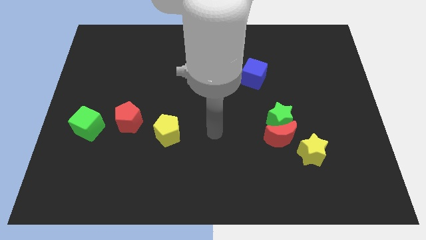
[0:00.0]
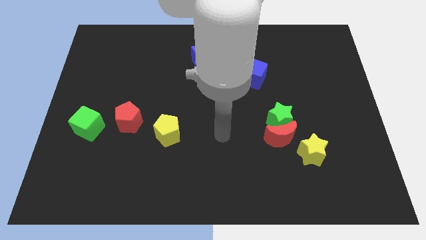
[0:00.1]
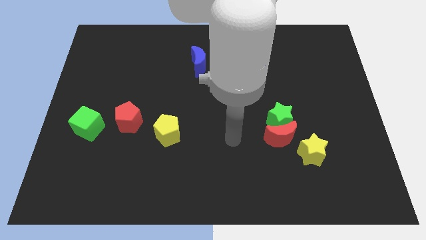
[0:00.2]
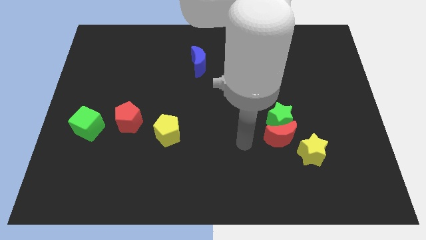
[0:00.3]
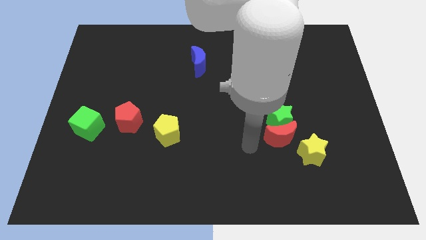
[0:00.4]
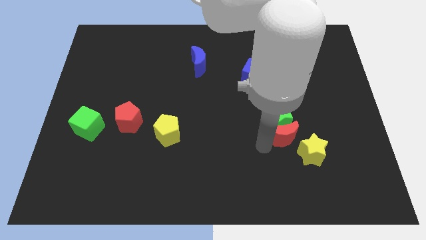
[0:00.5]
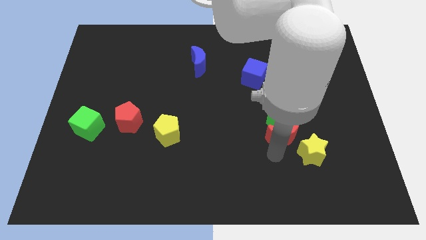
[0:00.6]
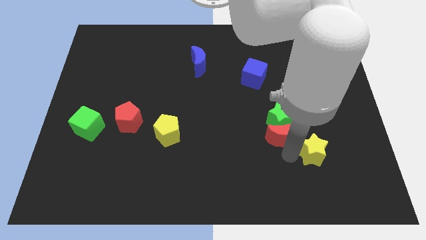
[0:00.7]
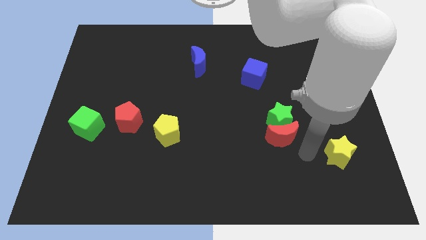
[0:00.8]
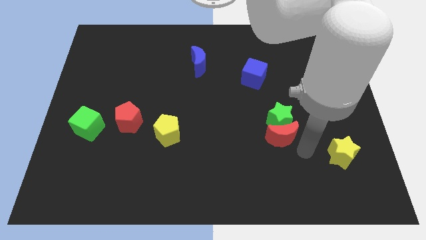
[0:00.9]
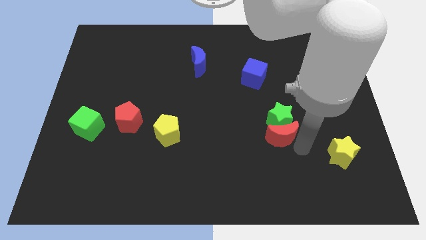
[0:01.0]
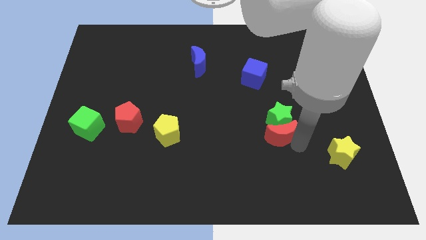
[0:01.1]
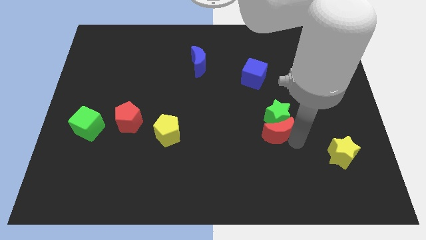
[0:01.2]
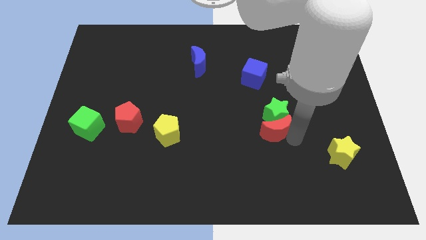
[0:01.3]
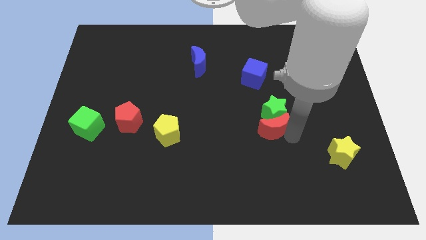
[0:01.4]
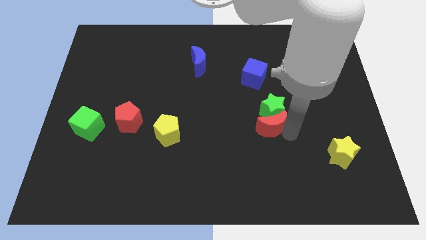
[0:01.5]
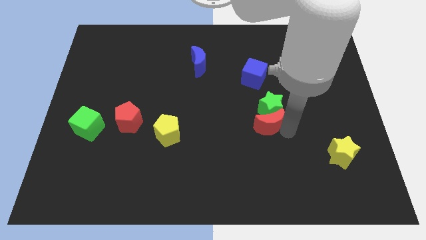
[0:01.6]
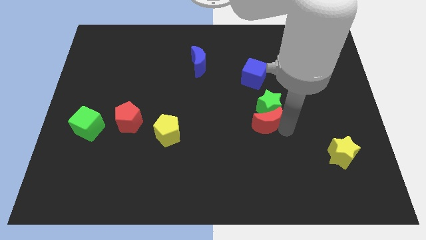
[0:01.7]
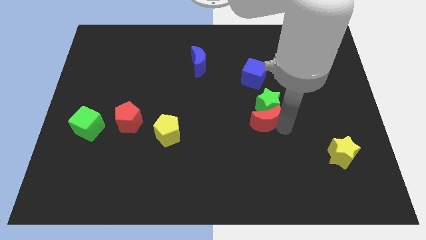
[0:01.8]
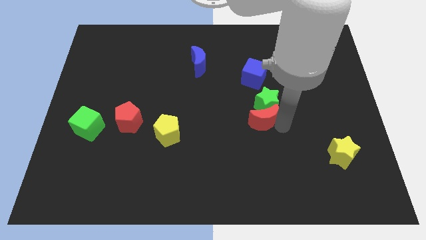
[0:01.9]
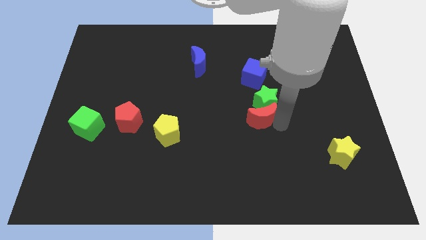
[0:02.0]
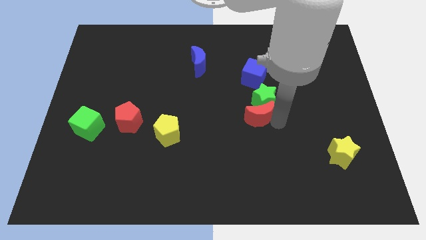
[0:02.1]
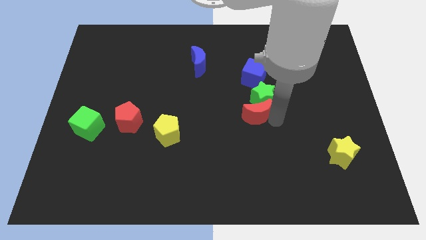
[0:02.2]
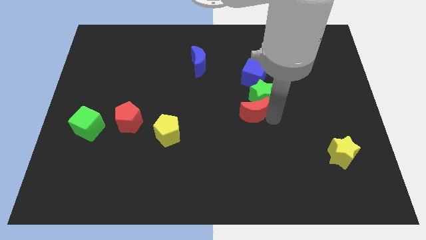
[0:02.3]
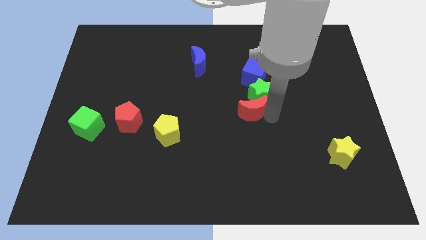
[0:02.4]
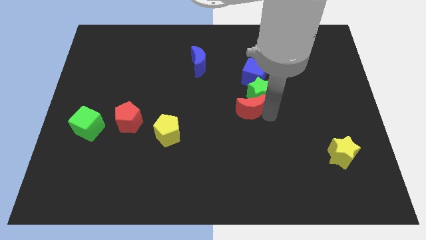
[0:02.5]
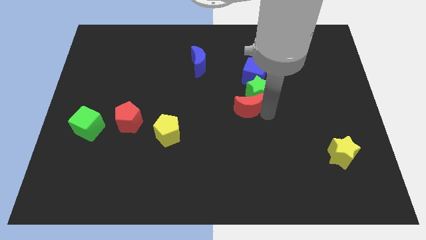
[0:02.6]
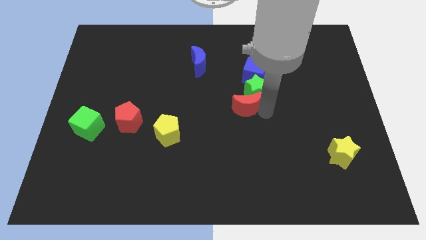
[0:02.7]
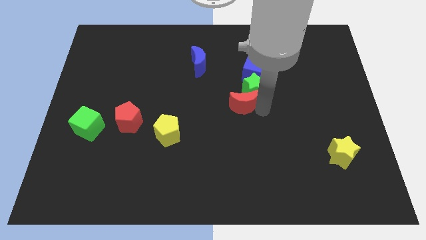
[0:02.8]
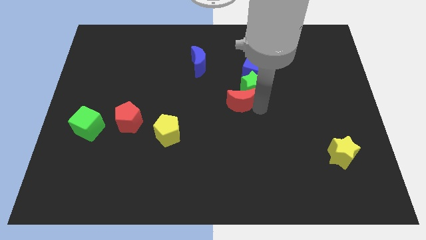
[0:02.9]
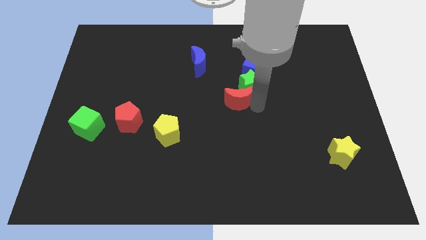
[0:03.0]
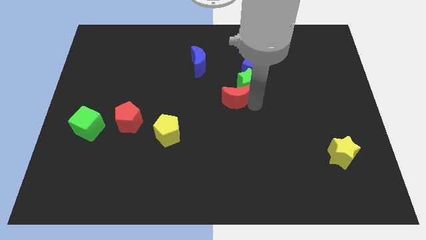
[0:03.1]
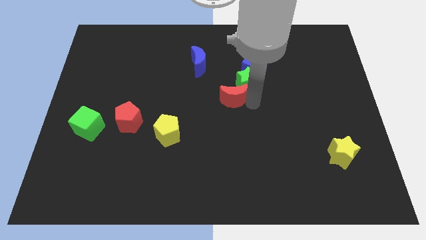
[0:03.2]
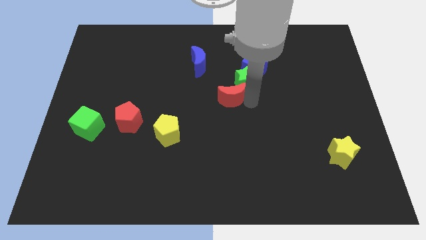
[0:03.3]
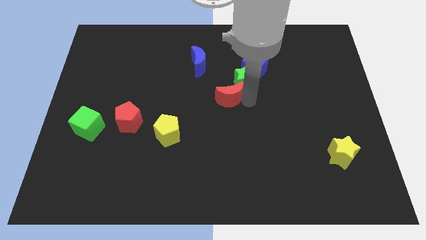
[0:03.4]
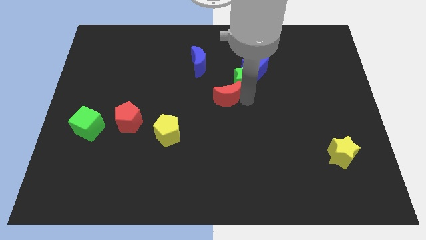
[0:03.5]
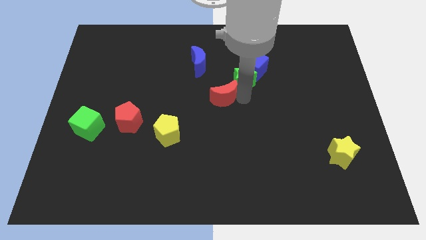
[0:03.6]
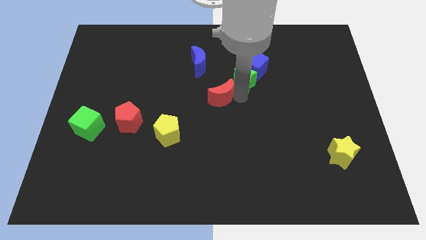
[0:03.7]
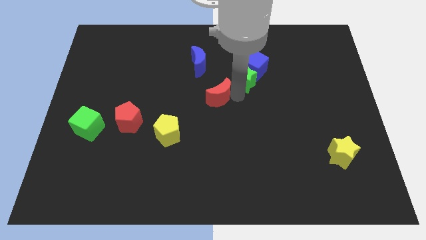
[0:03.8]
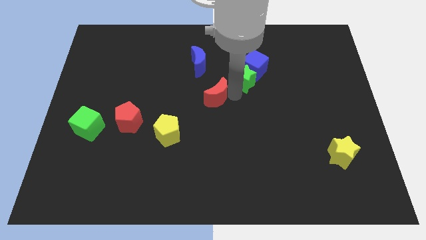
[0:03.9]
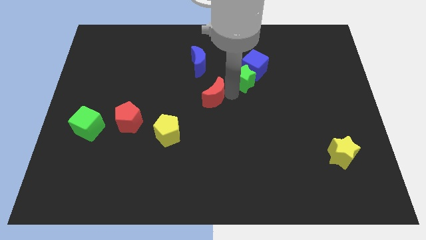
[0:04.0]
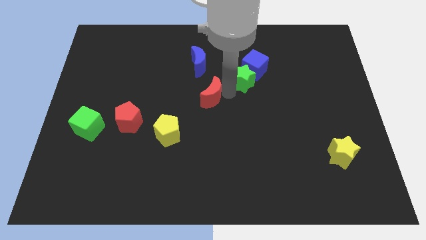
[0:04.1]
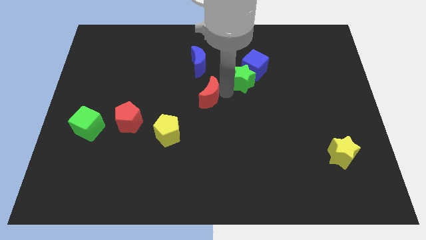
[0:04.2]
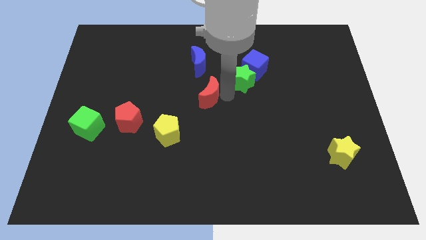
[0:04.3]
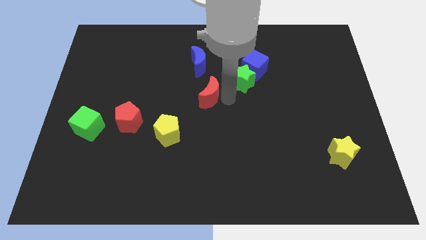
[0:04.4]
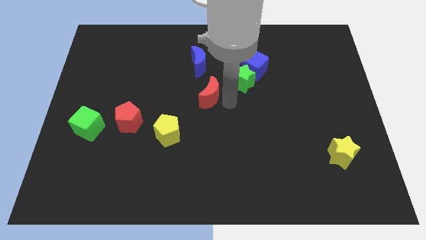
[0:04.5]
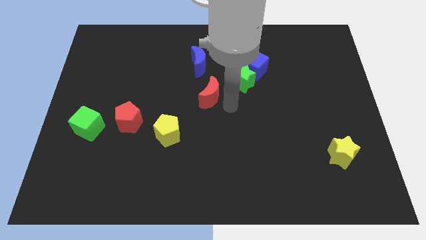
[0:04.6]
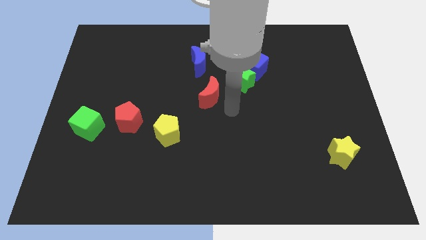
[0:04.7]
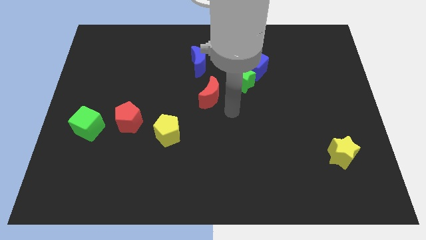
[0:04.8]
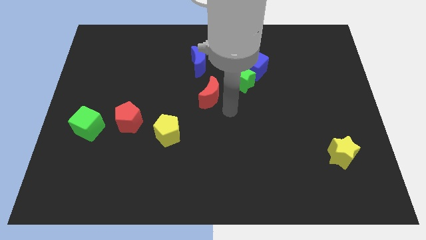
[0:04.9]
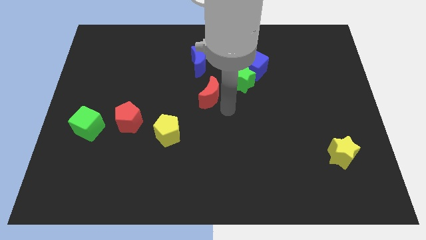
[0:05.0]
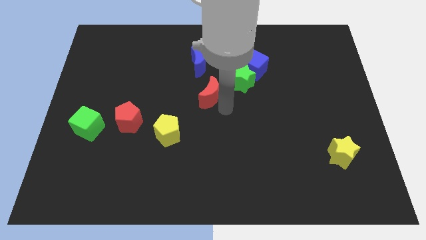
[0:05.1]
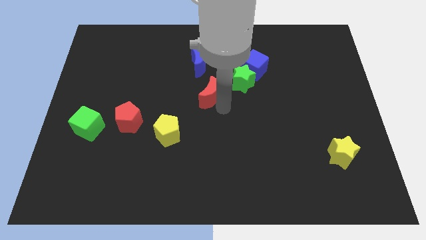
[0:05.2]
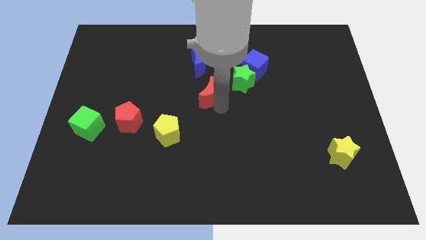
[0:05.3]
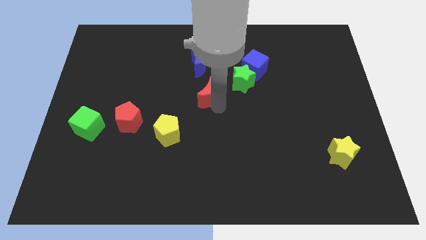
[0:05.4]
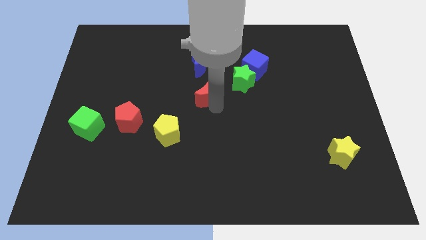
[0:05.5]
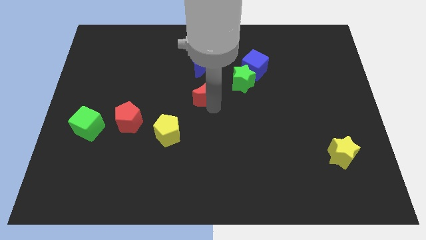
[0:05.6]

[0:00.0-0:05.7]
move the red moon up and then left

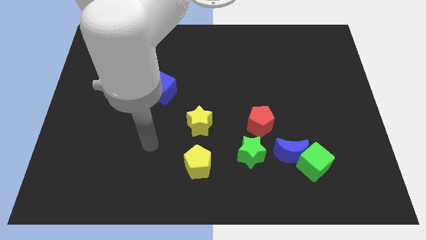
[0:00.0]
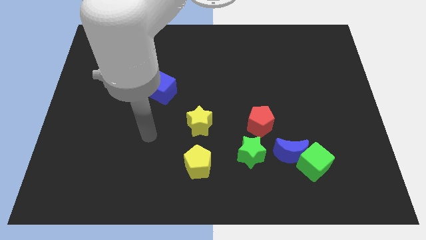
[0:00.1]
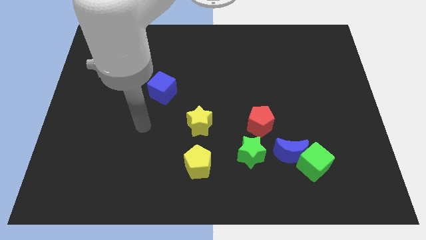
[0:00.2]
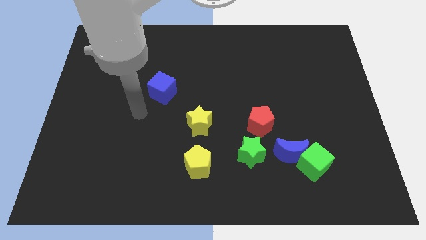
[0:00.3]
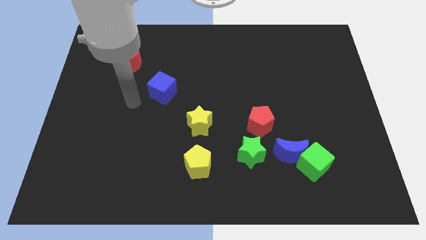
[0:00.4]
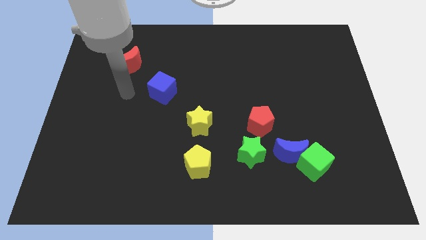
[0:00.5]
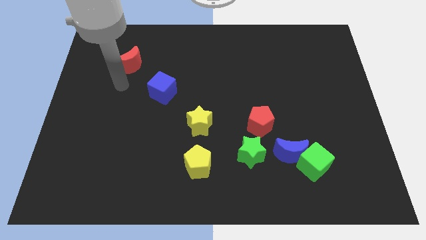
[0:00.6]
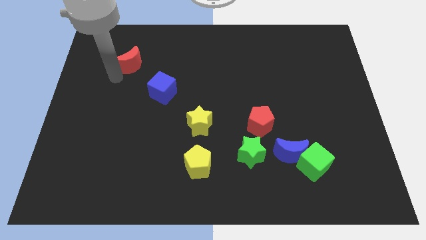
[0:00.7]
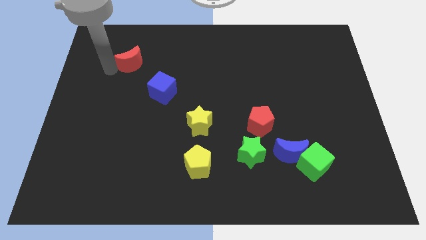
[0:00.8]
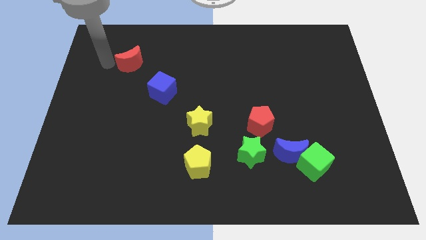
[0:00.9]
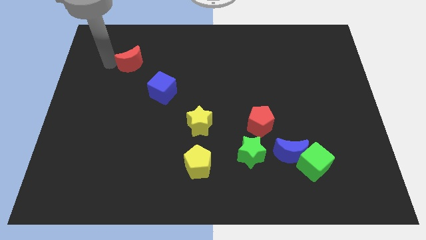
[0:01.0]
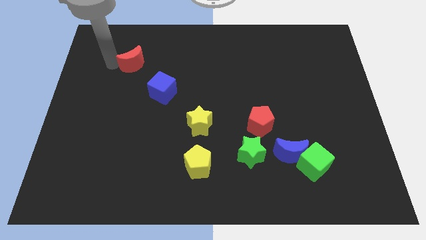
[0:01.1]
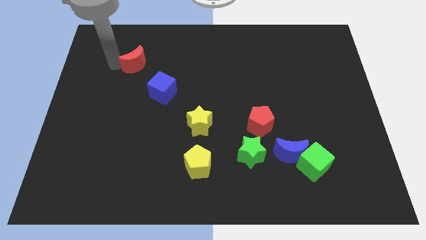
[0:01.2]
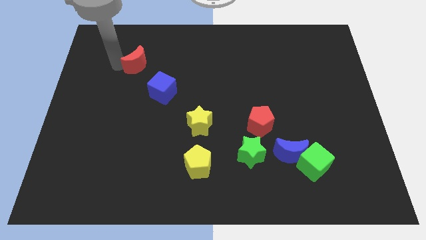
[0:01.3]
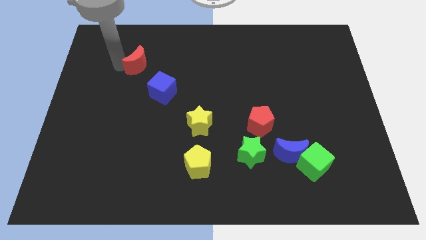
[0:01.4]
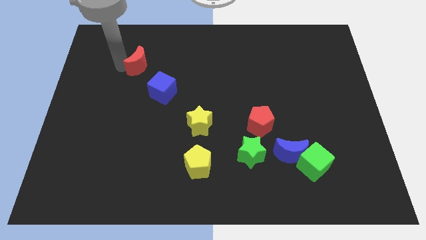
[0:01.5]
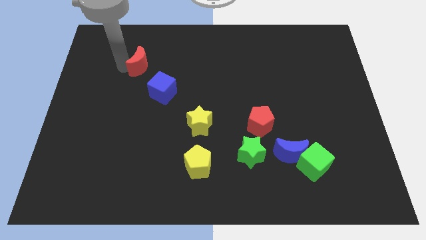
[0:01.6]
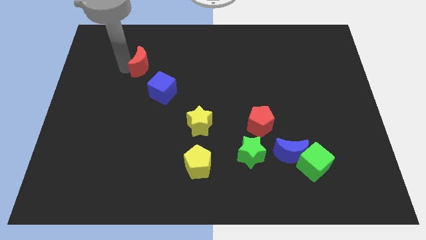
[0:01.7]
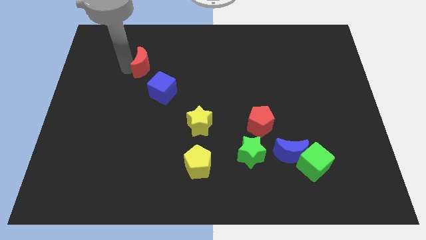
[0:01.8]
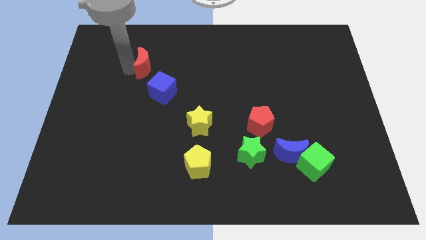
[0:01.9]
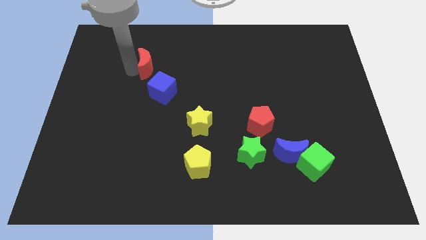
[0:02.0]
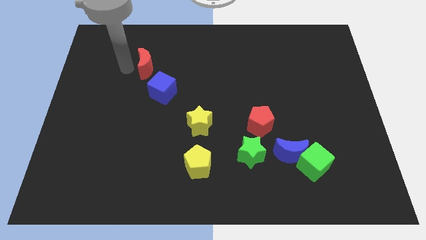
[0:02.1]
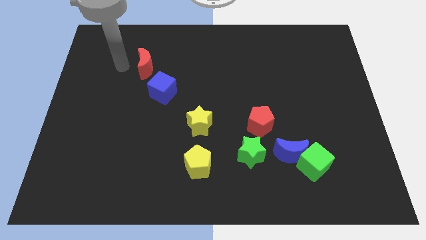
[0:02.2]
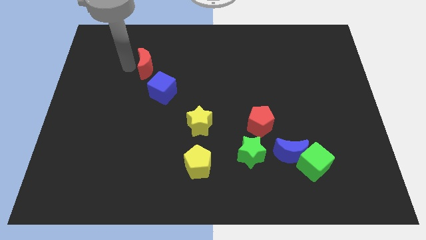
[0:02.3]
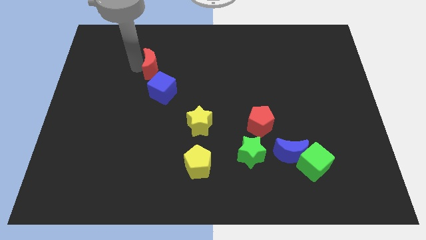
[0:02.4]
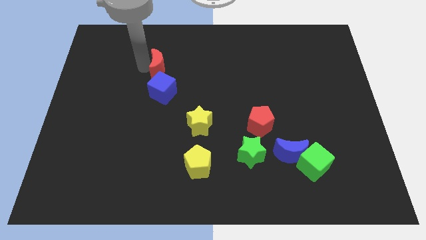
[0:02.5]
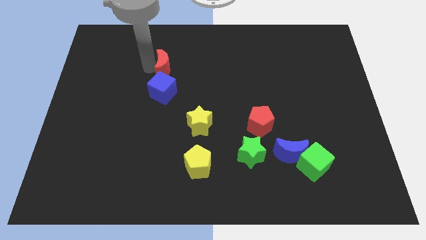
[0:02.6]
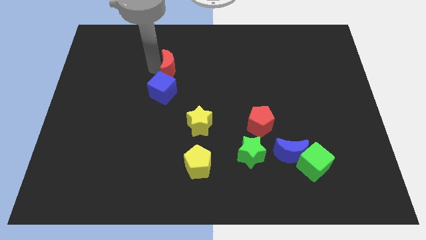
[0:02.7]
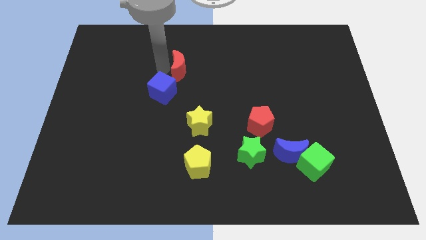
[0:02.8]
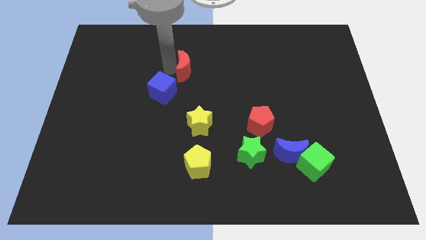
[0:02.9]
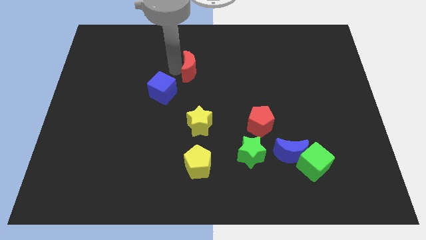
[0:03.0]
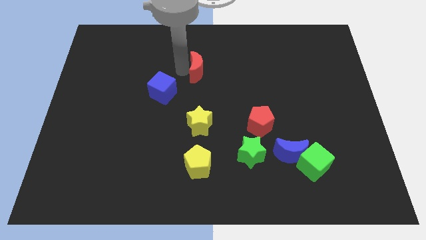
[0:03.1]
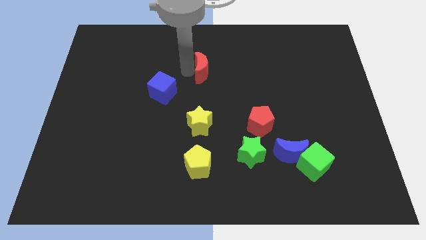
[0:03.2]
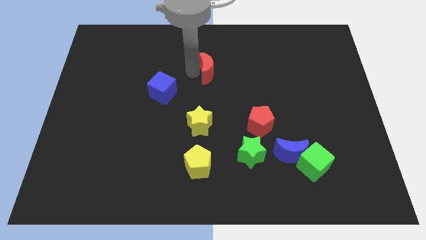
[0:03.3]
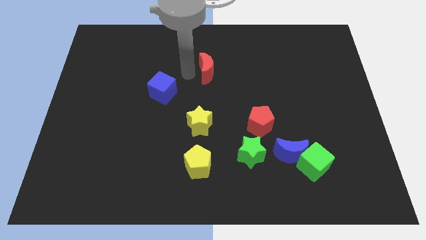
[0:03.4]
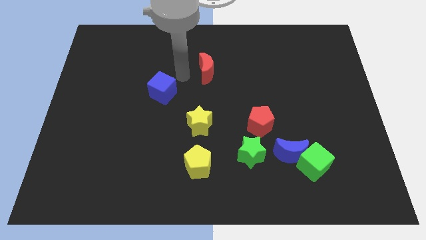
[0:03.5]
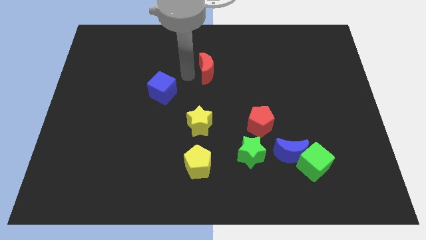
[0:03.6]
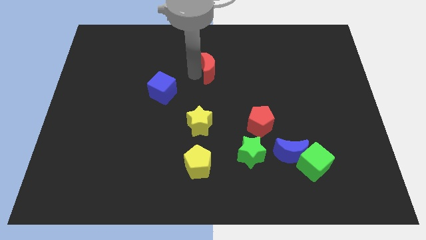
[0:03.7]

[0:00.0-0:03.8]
move the red moon to the right
